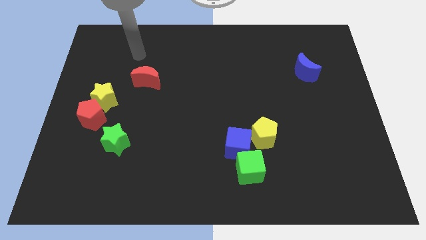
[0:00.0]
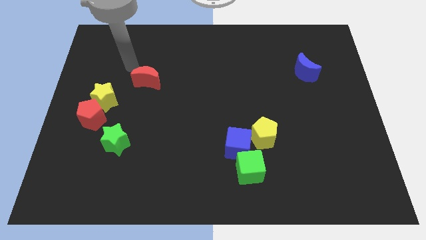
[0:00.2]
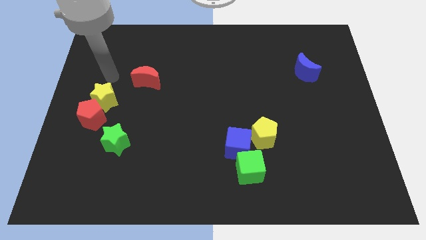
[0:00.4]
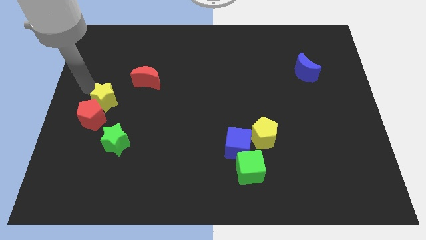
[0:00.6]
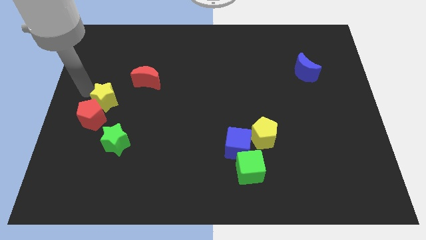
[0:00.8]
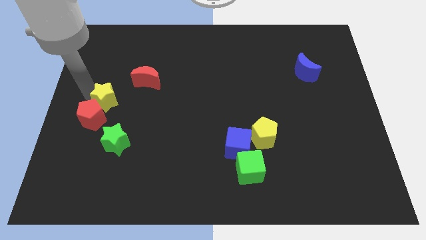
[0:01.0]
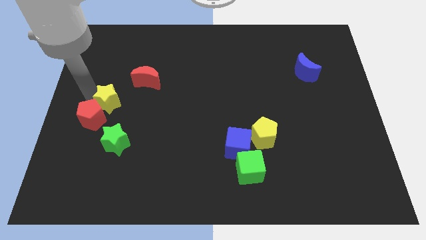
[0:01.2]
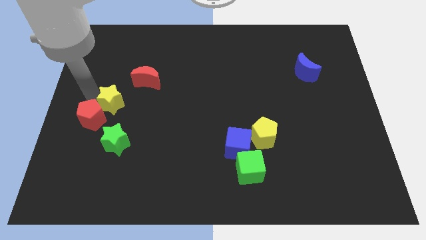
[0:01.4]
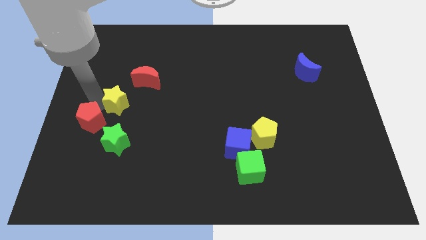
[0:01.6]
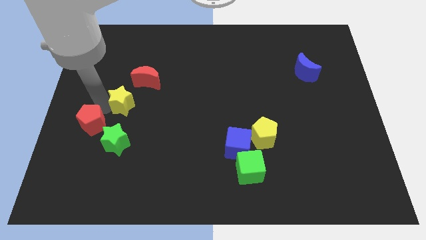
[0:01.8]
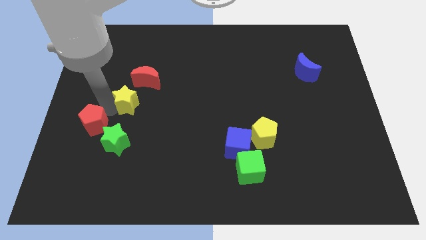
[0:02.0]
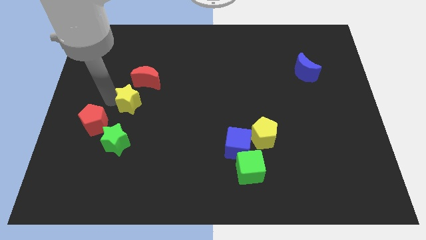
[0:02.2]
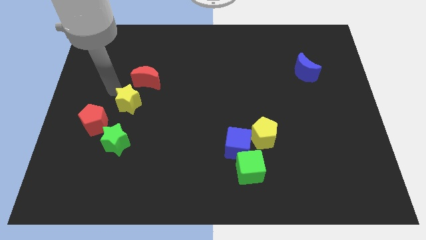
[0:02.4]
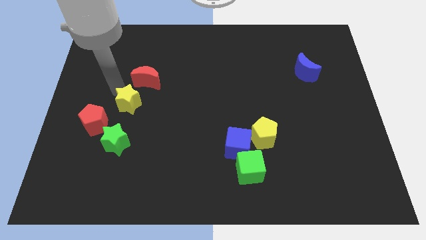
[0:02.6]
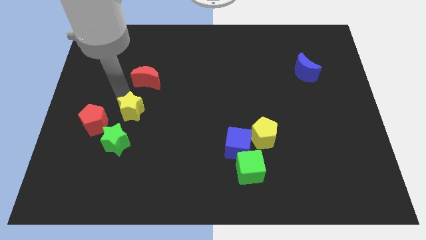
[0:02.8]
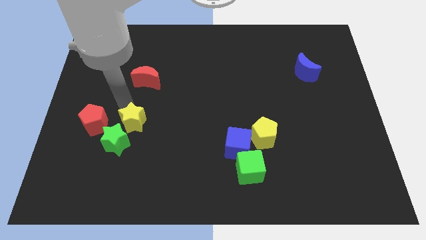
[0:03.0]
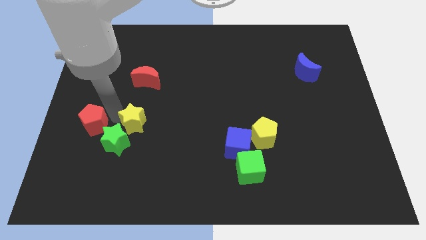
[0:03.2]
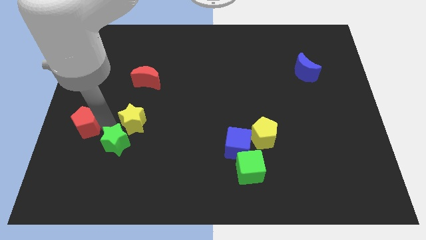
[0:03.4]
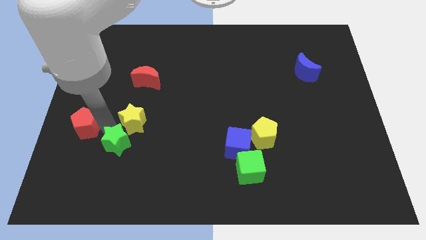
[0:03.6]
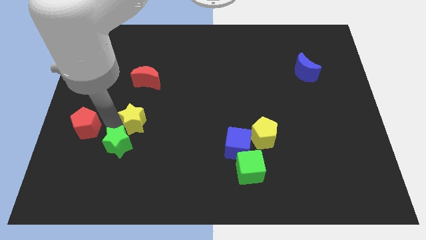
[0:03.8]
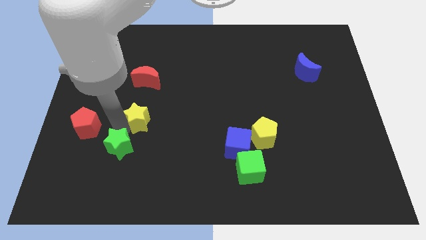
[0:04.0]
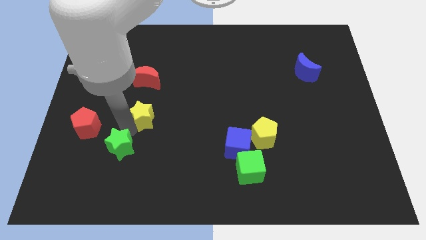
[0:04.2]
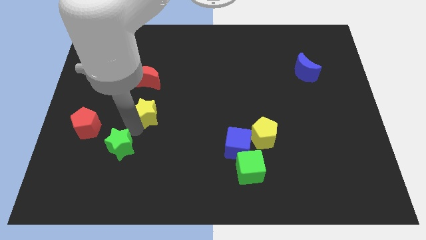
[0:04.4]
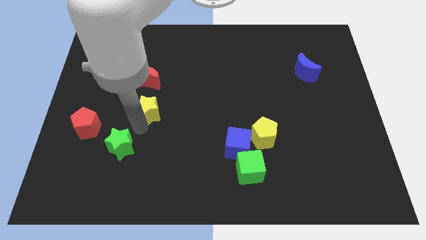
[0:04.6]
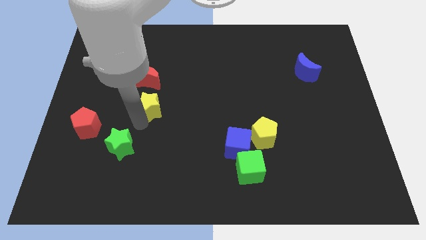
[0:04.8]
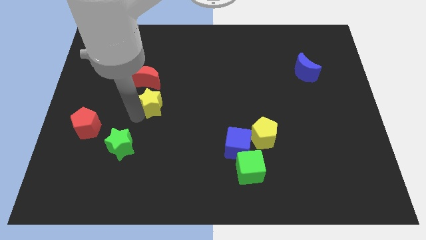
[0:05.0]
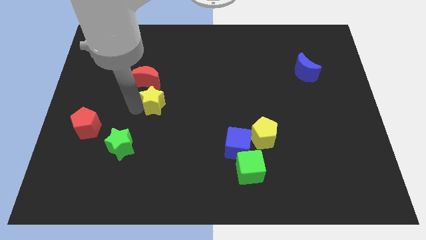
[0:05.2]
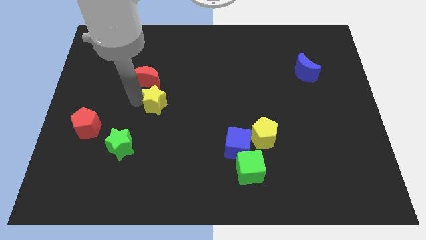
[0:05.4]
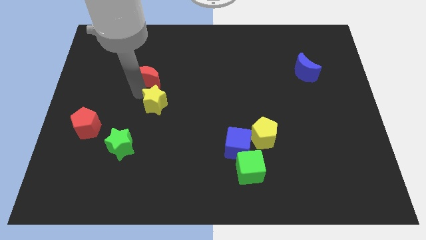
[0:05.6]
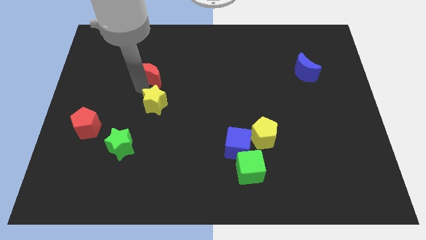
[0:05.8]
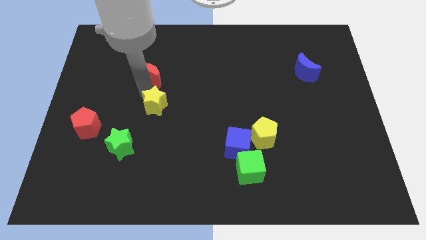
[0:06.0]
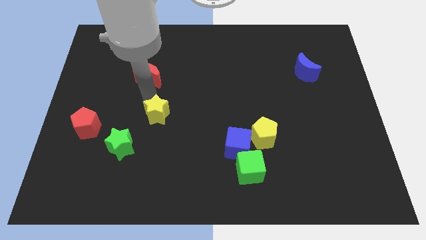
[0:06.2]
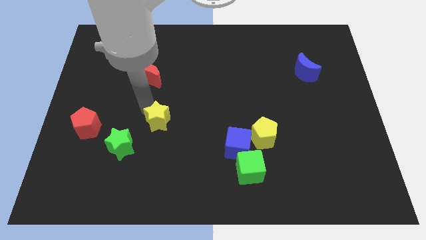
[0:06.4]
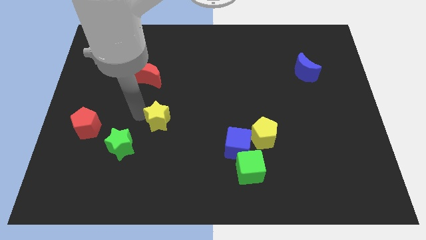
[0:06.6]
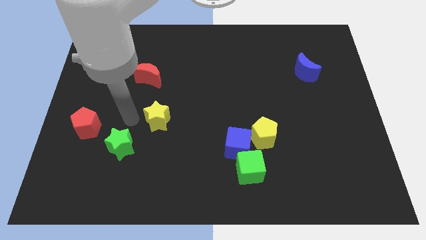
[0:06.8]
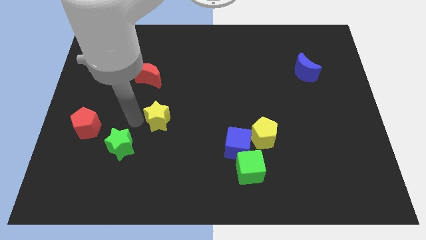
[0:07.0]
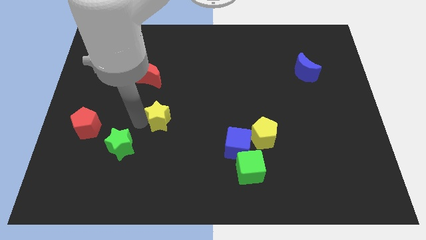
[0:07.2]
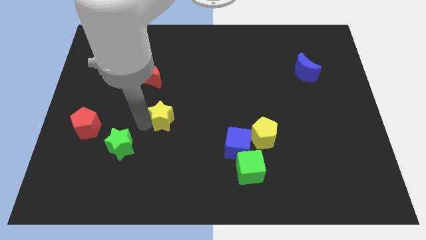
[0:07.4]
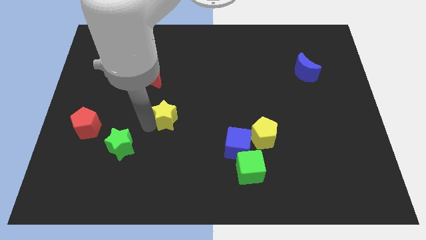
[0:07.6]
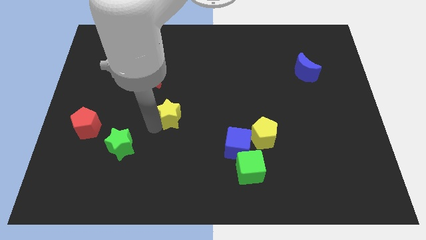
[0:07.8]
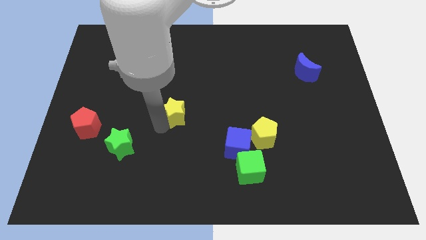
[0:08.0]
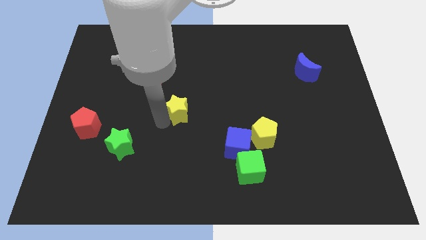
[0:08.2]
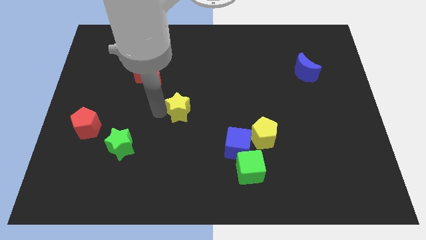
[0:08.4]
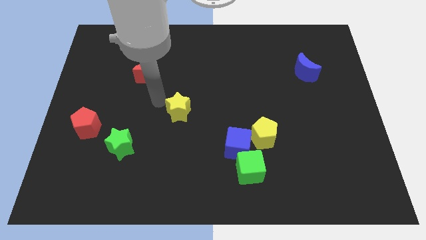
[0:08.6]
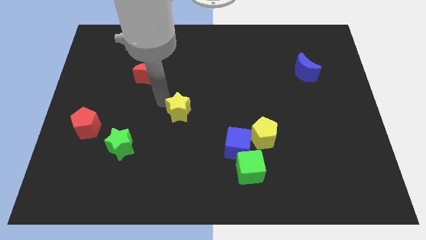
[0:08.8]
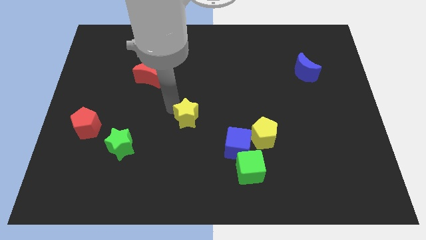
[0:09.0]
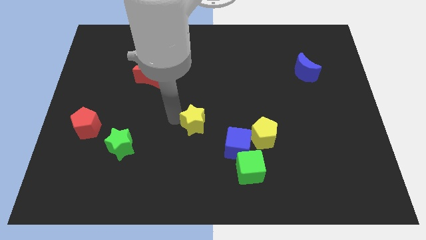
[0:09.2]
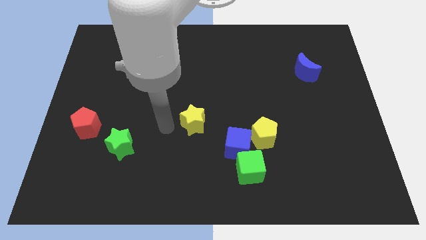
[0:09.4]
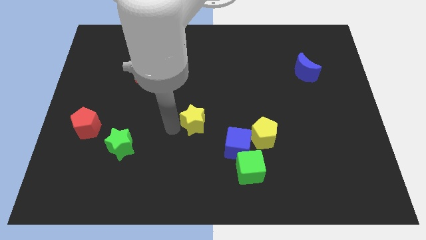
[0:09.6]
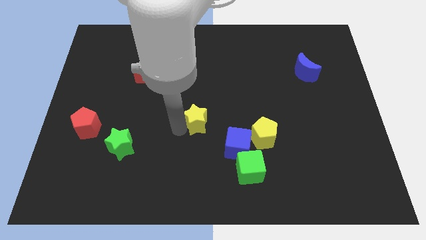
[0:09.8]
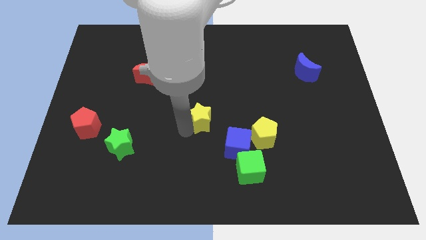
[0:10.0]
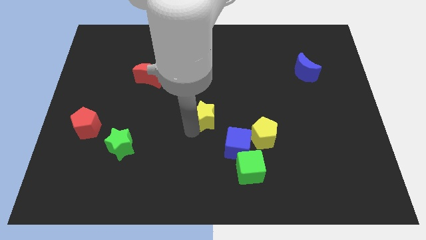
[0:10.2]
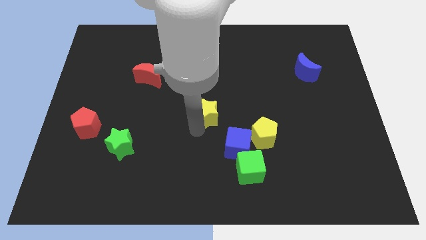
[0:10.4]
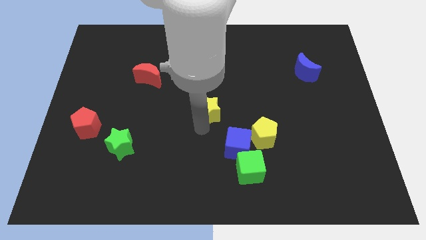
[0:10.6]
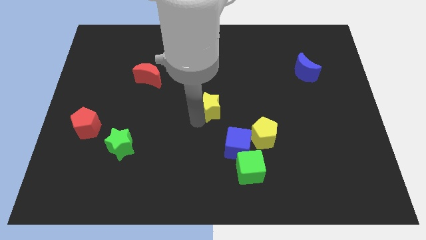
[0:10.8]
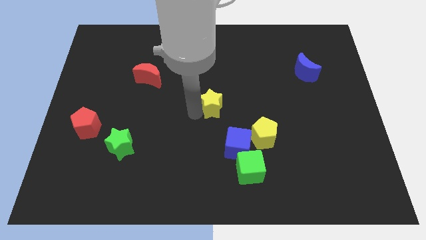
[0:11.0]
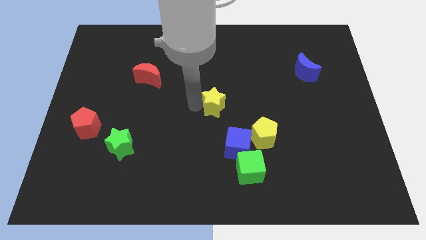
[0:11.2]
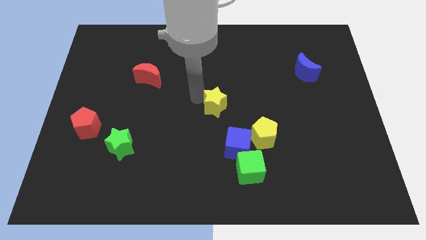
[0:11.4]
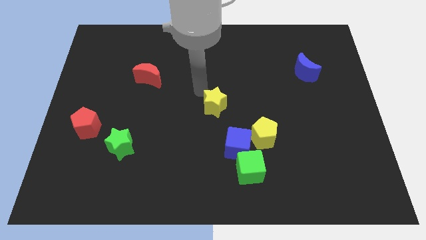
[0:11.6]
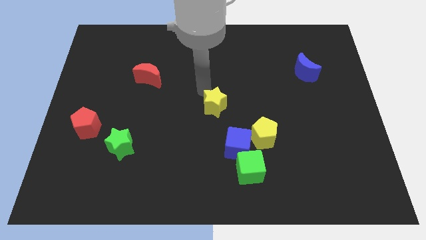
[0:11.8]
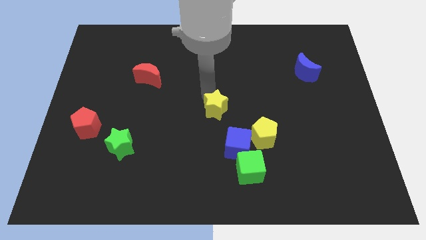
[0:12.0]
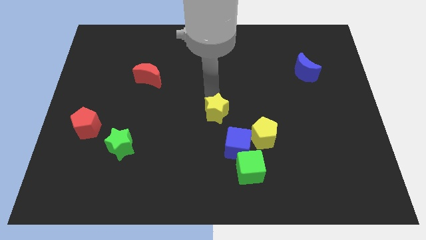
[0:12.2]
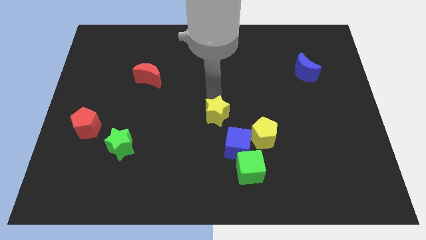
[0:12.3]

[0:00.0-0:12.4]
put the yellow star to the top left of the yellow pentagon
